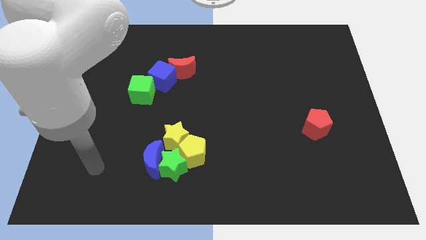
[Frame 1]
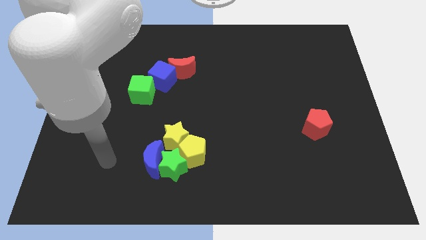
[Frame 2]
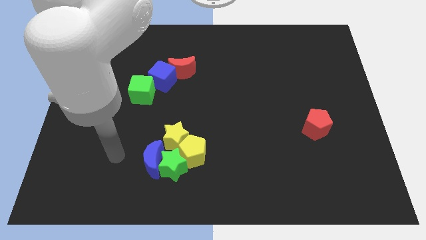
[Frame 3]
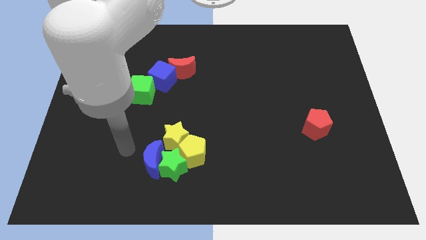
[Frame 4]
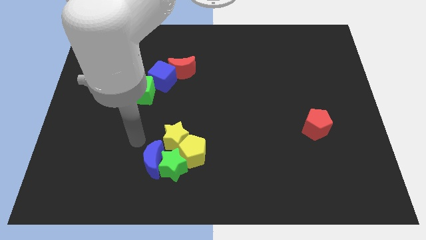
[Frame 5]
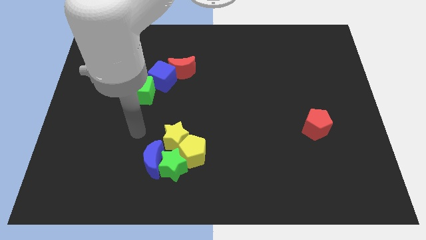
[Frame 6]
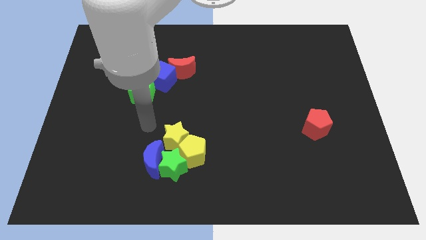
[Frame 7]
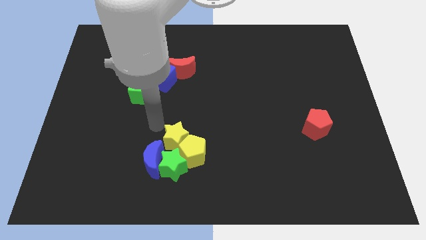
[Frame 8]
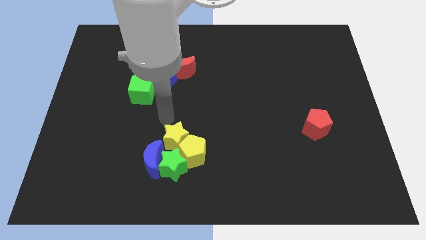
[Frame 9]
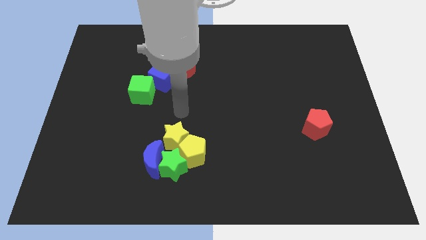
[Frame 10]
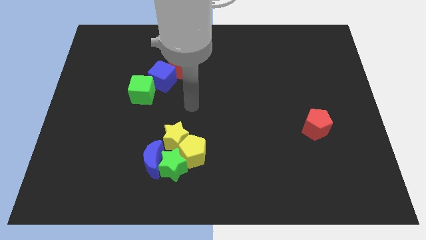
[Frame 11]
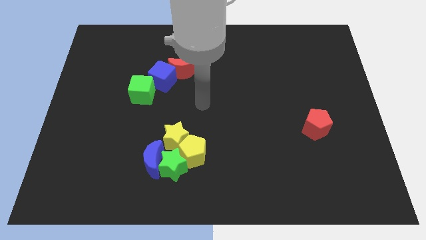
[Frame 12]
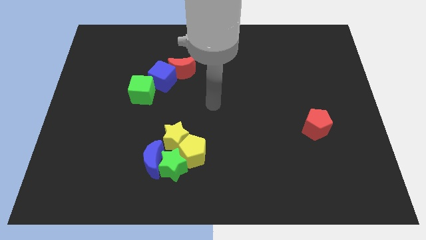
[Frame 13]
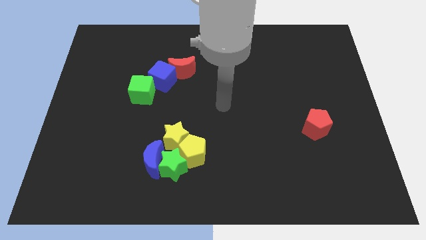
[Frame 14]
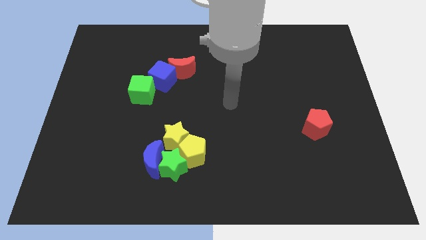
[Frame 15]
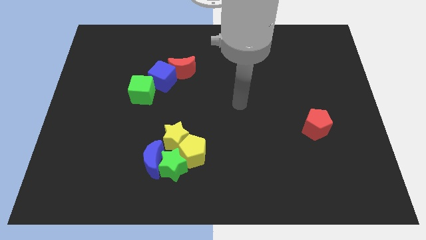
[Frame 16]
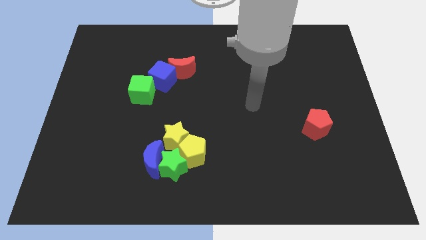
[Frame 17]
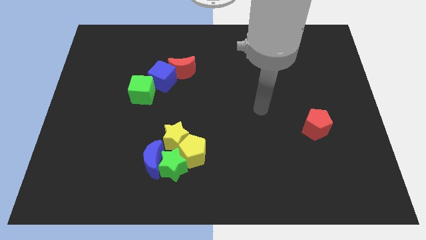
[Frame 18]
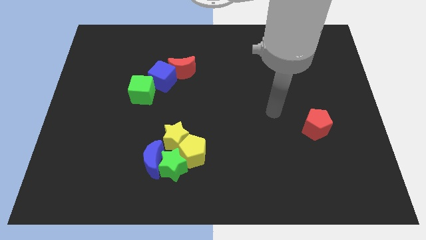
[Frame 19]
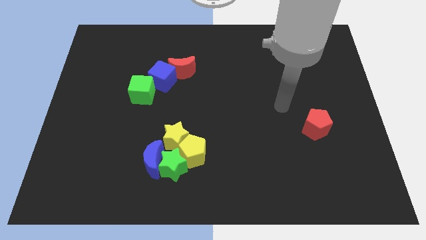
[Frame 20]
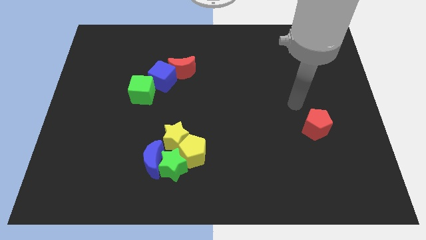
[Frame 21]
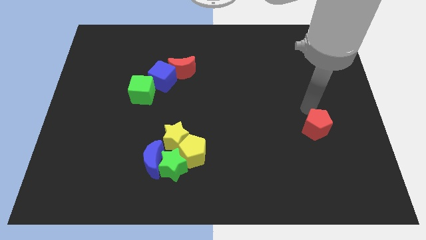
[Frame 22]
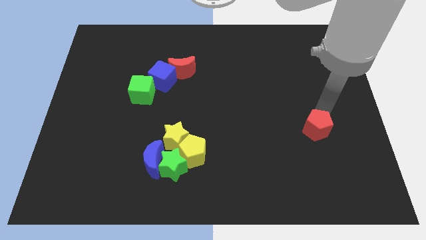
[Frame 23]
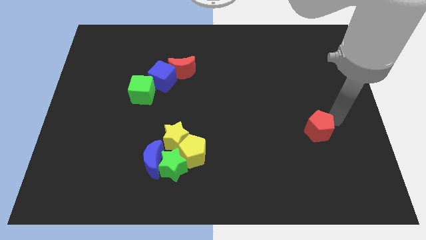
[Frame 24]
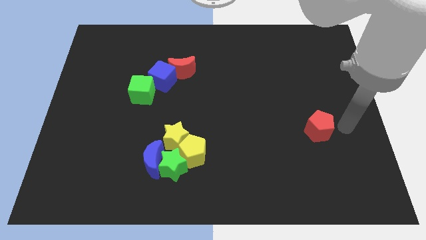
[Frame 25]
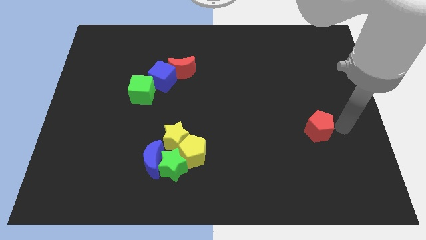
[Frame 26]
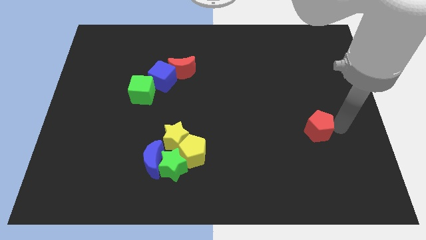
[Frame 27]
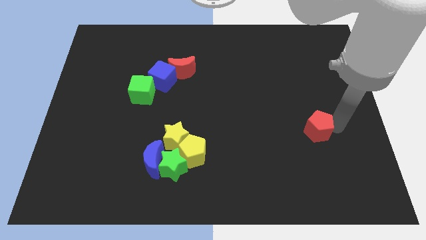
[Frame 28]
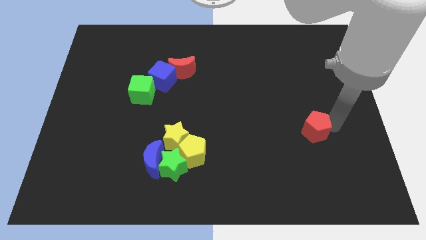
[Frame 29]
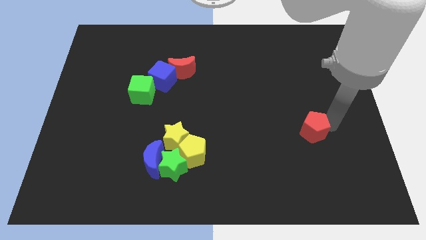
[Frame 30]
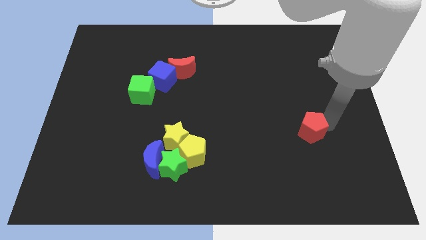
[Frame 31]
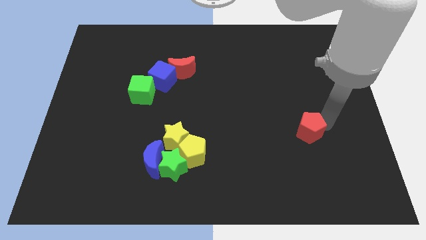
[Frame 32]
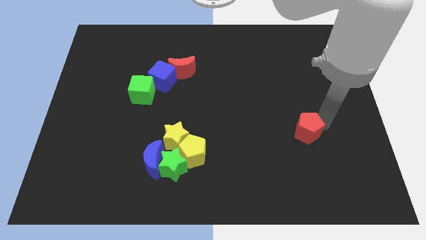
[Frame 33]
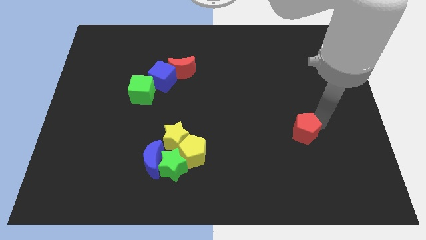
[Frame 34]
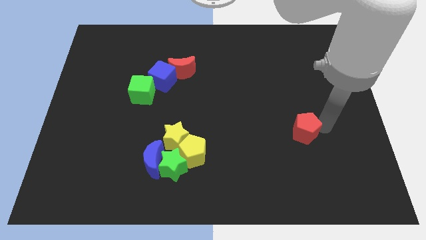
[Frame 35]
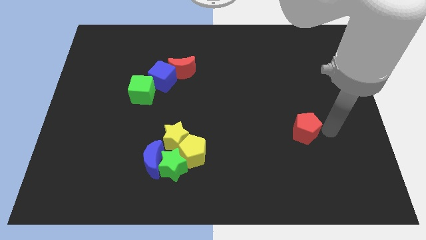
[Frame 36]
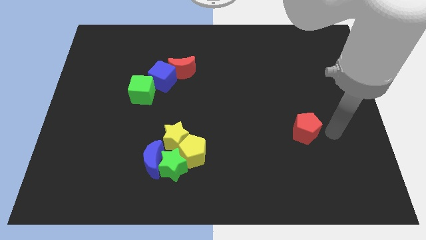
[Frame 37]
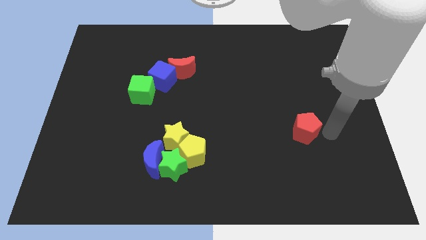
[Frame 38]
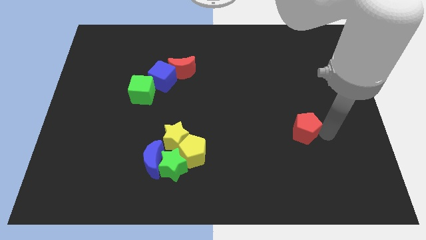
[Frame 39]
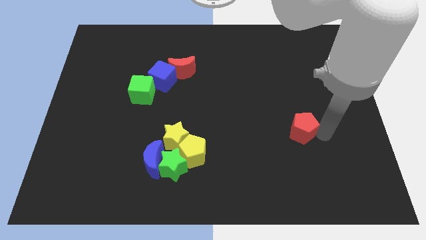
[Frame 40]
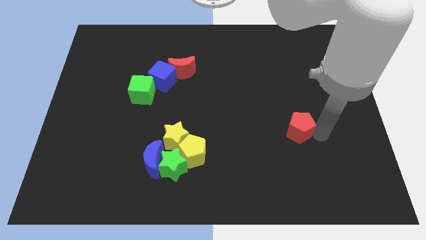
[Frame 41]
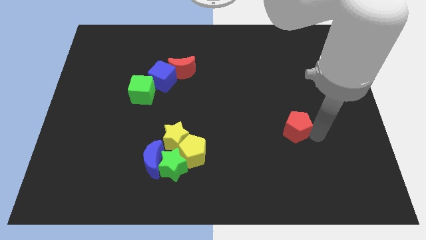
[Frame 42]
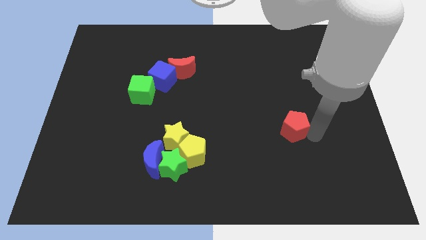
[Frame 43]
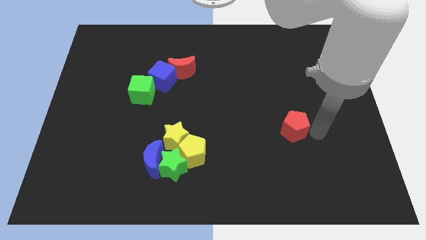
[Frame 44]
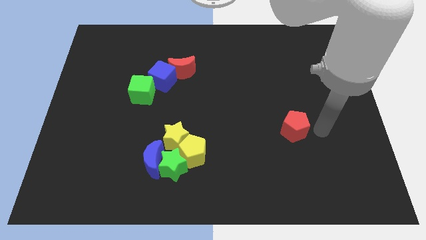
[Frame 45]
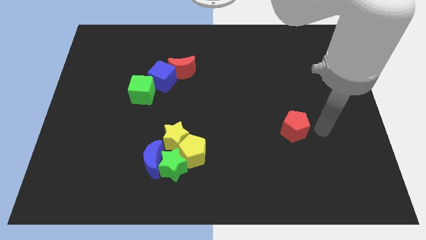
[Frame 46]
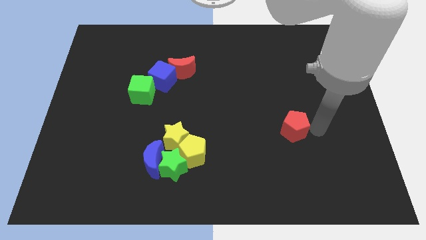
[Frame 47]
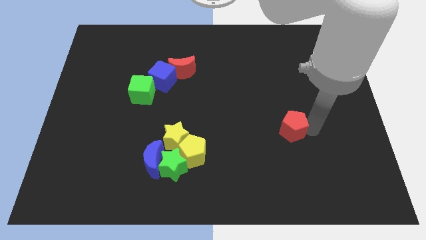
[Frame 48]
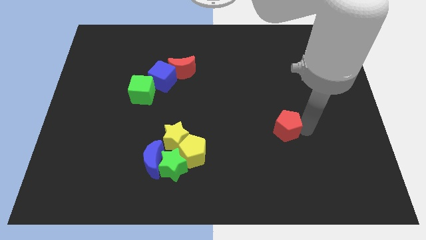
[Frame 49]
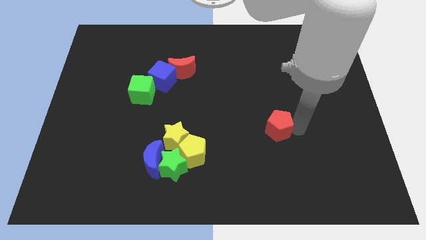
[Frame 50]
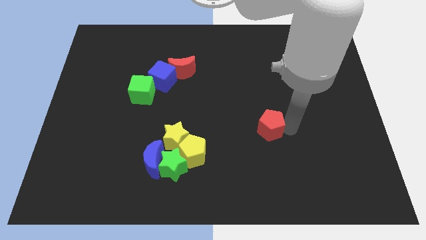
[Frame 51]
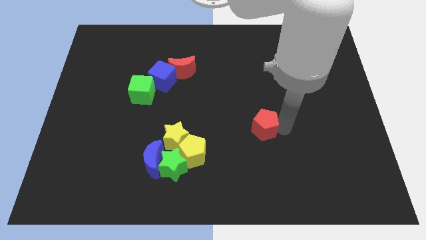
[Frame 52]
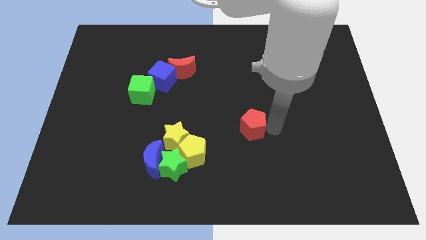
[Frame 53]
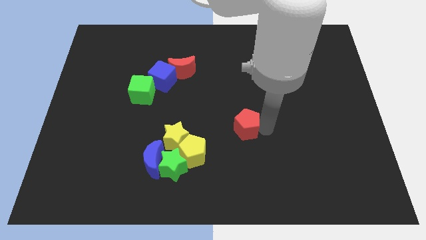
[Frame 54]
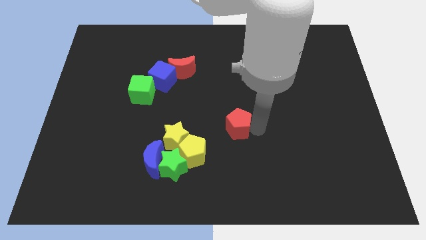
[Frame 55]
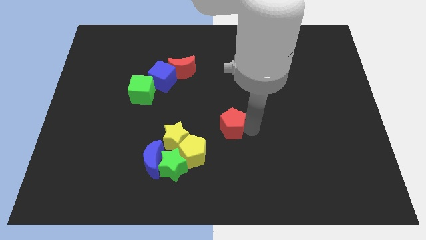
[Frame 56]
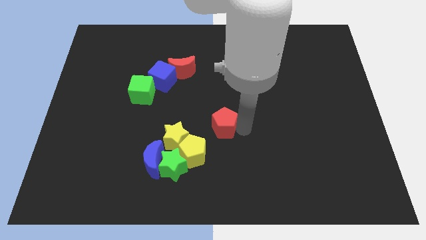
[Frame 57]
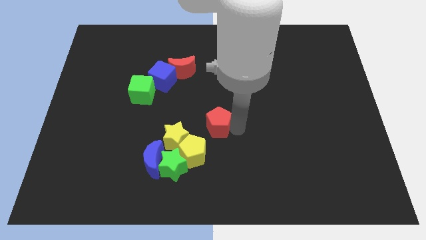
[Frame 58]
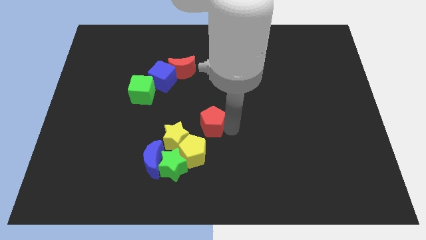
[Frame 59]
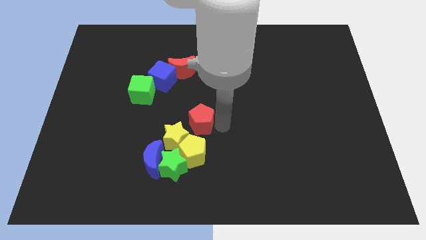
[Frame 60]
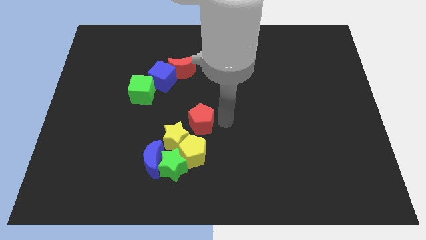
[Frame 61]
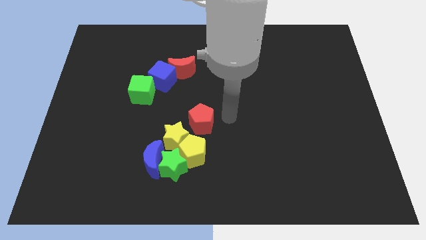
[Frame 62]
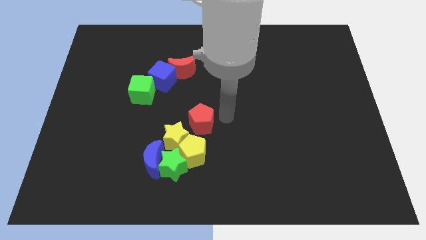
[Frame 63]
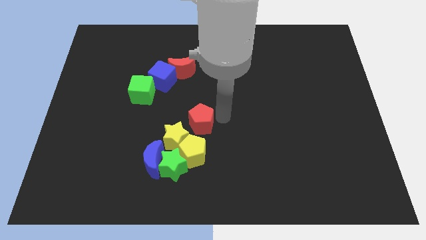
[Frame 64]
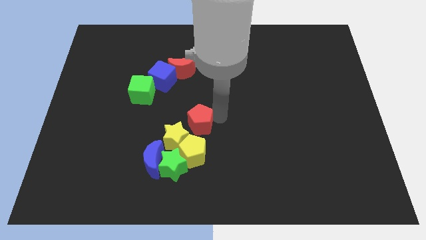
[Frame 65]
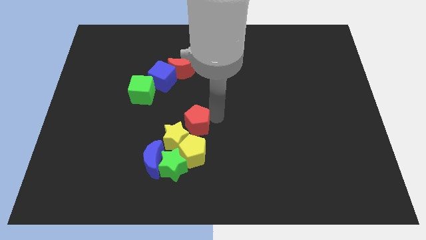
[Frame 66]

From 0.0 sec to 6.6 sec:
push the red pentagon to the top of the green star
